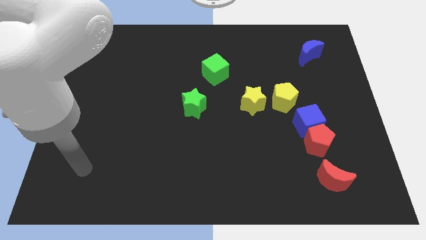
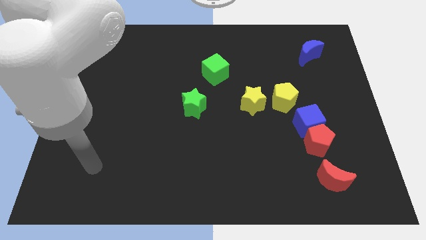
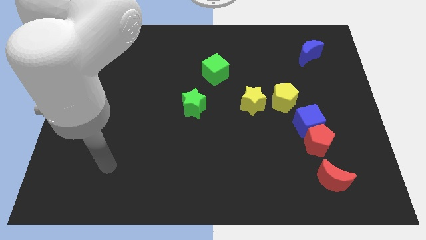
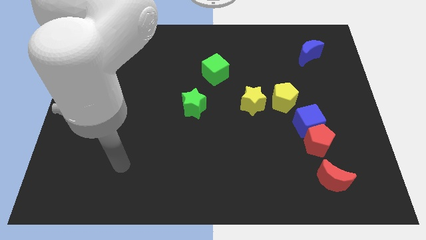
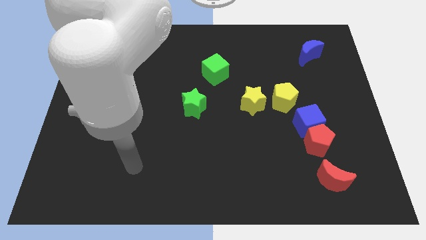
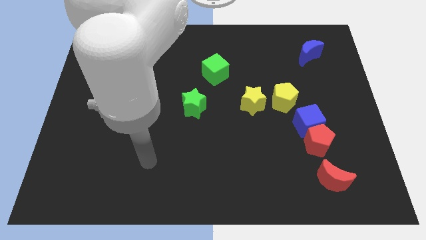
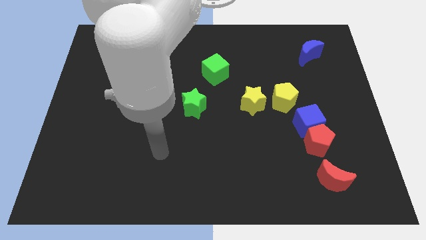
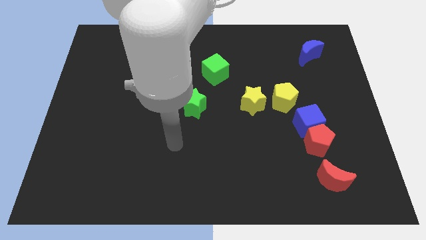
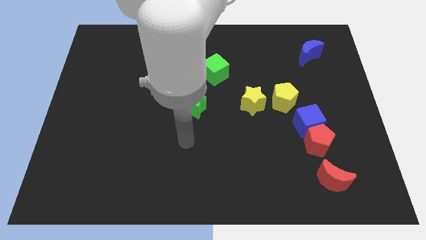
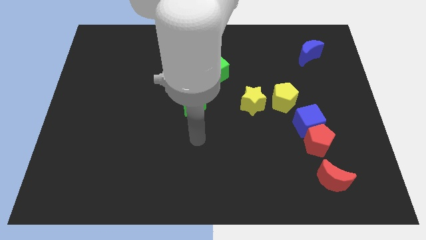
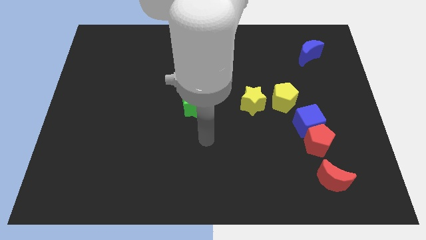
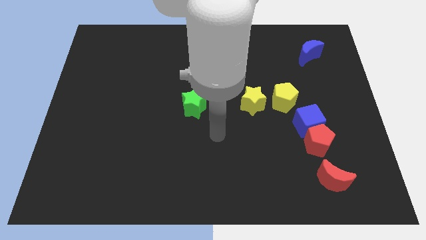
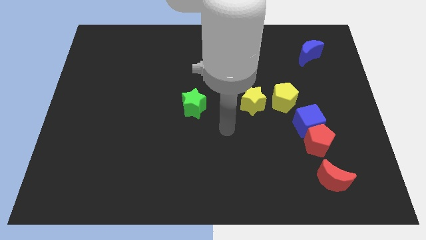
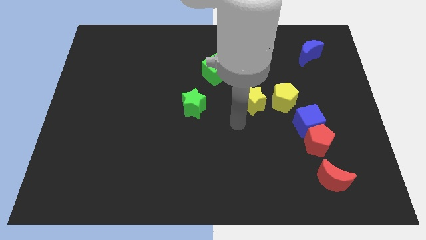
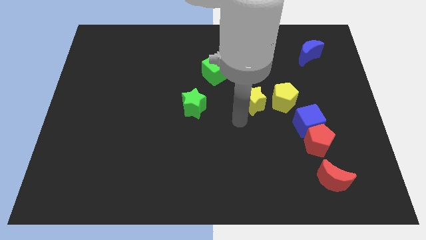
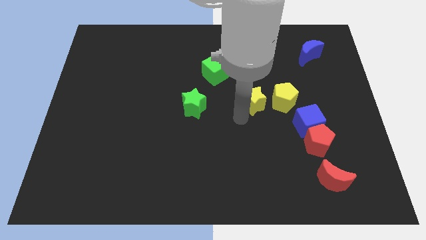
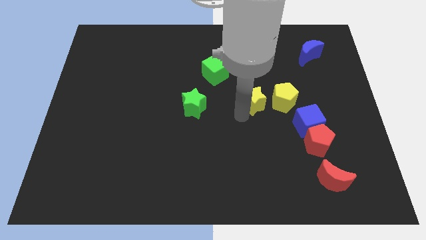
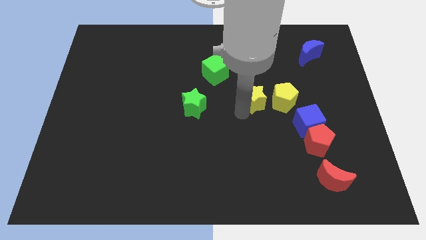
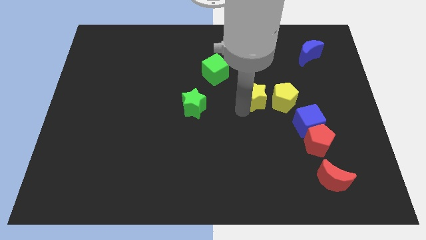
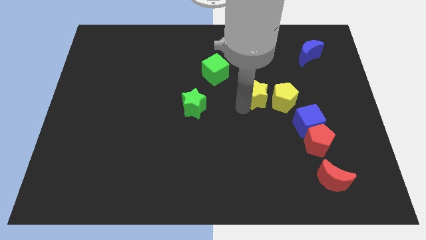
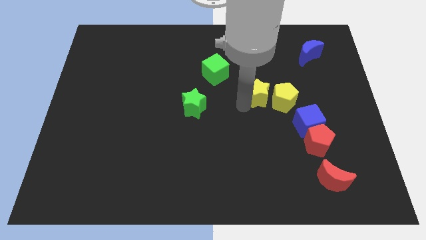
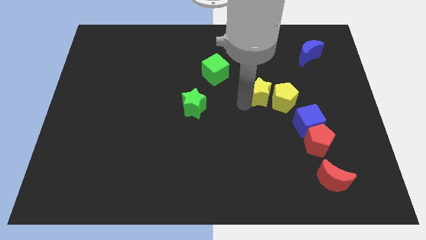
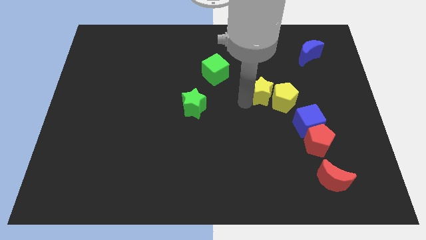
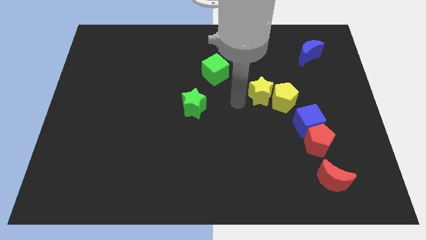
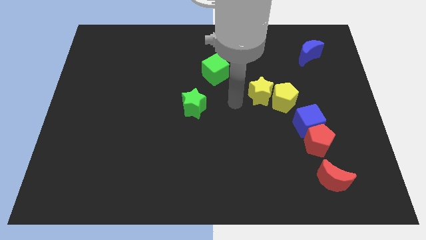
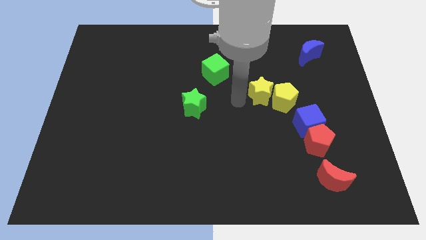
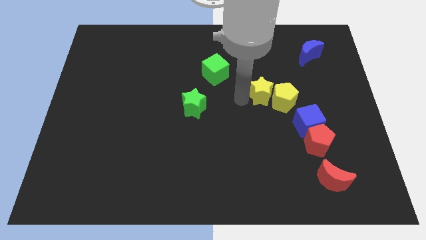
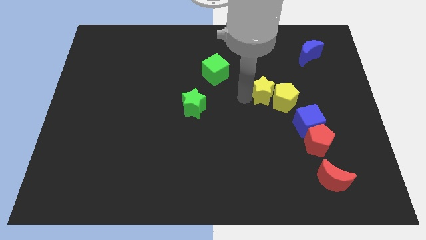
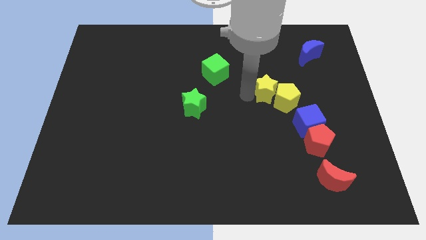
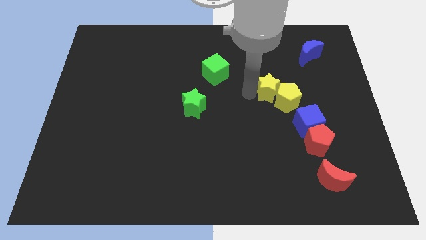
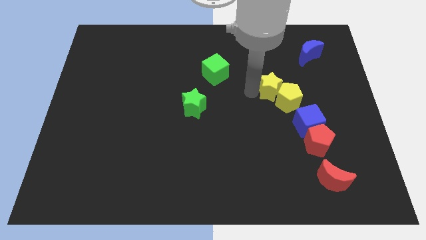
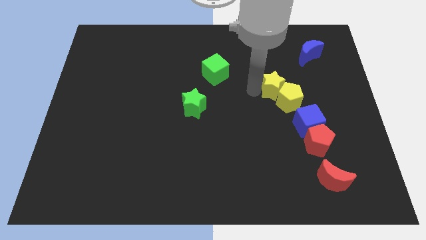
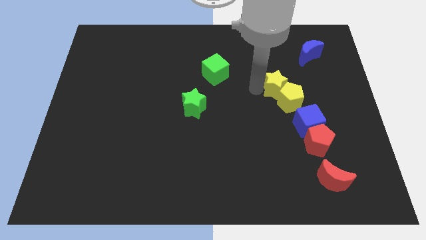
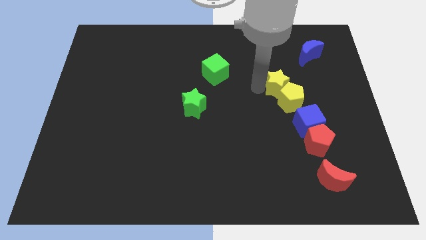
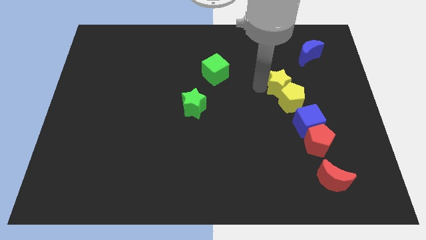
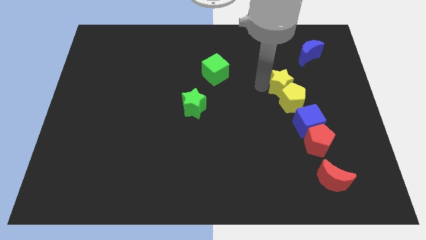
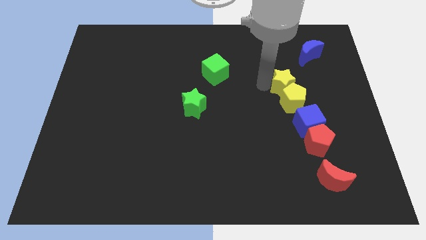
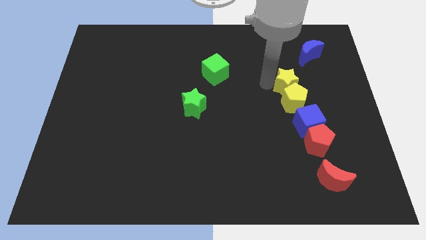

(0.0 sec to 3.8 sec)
slide the yellow star right slightly

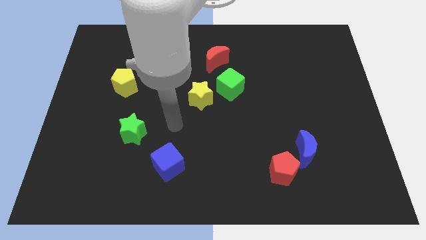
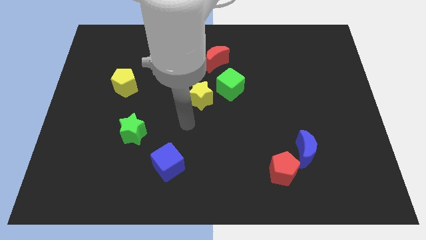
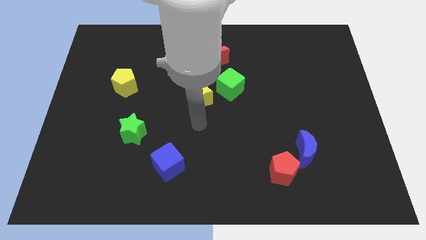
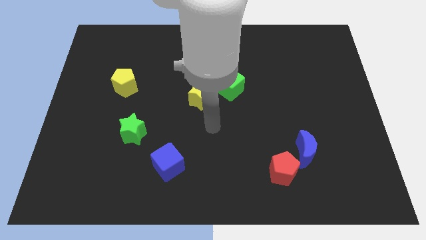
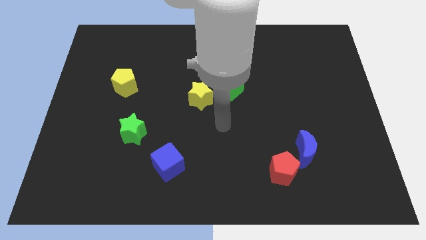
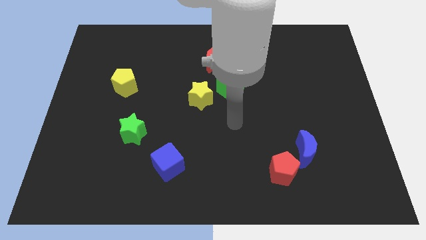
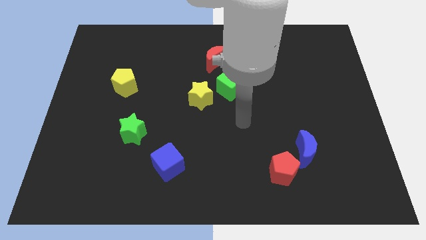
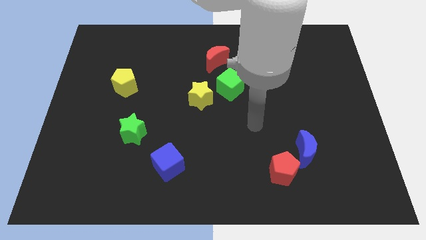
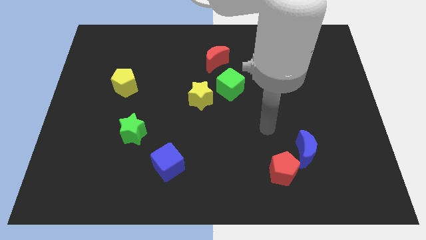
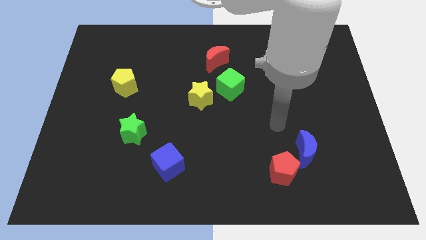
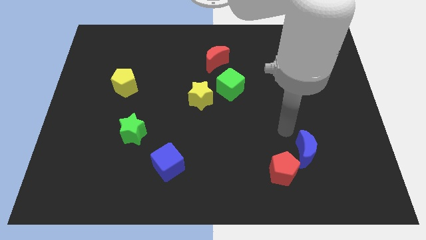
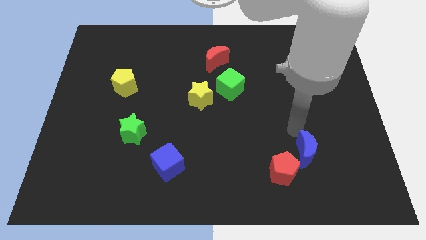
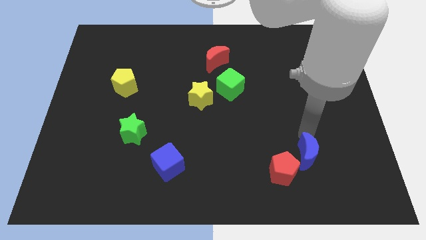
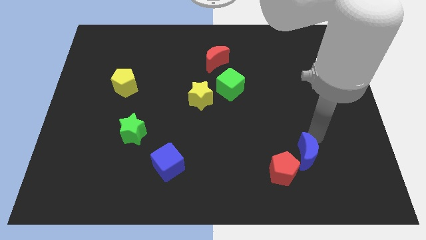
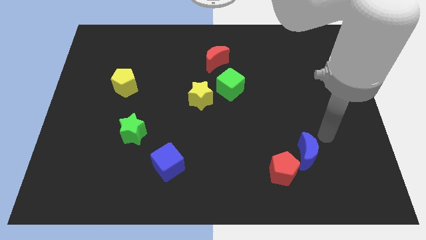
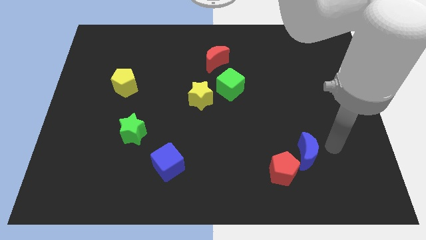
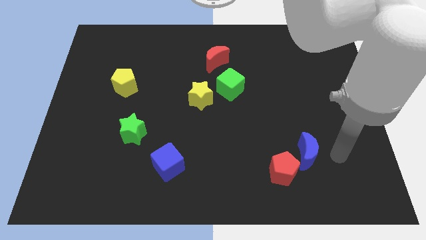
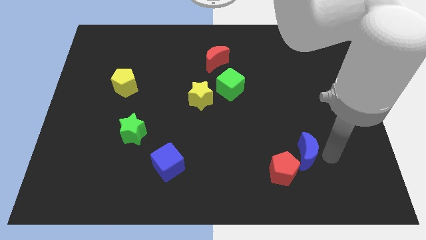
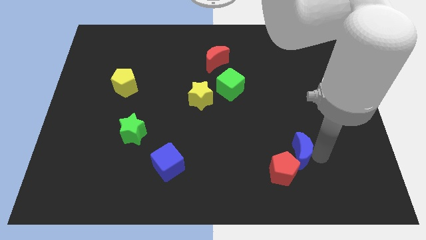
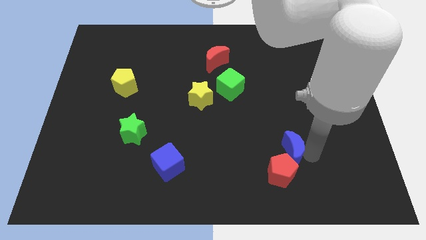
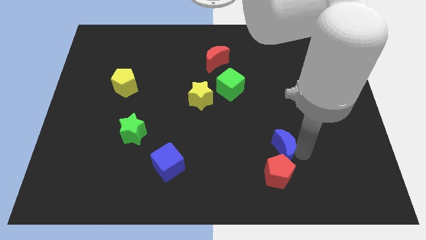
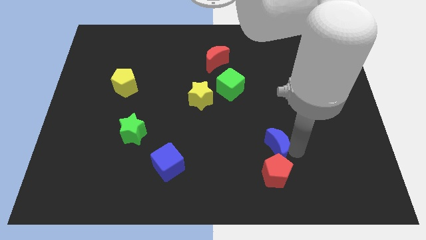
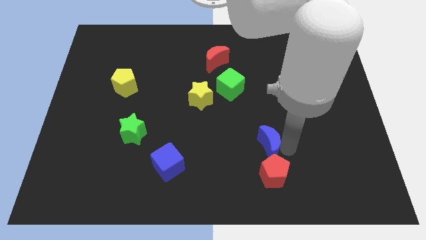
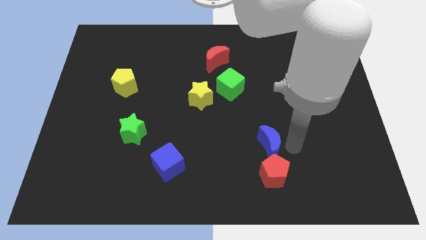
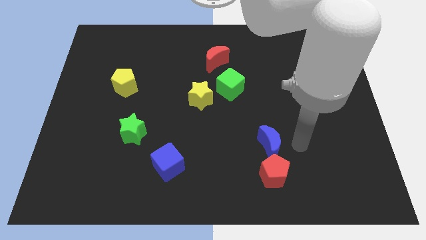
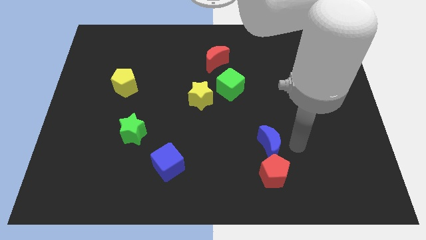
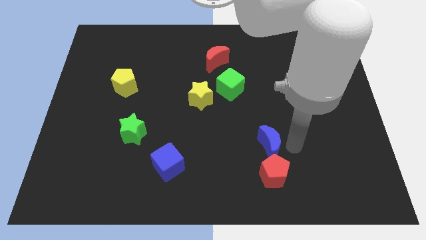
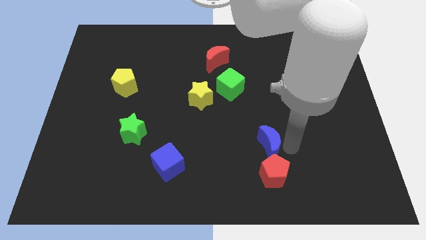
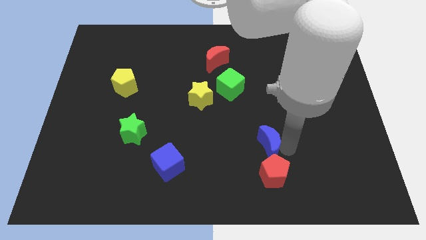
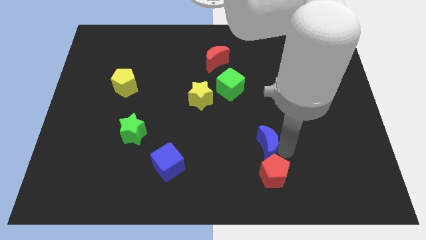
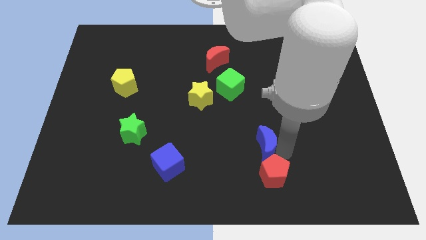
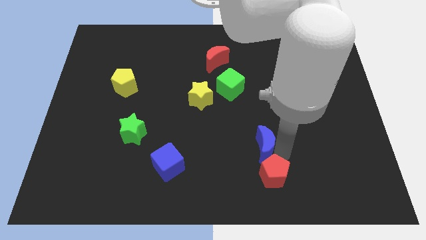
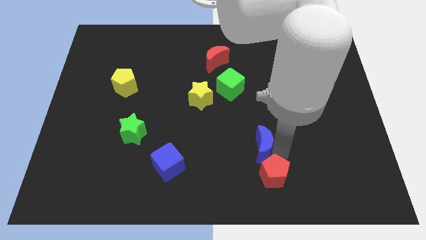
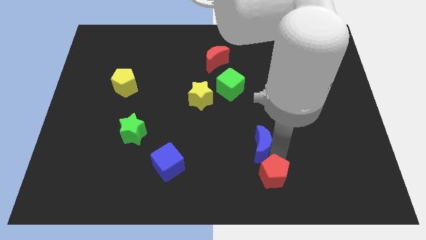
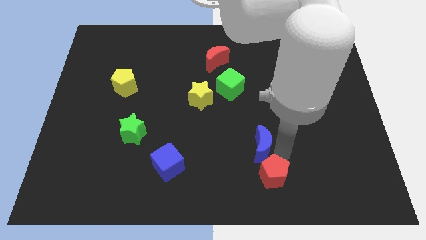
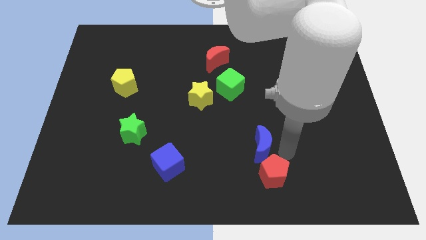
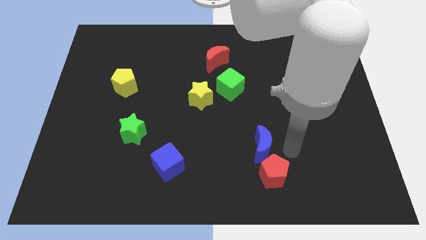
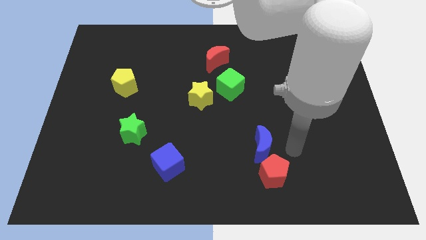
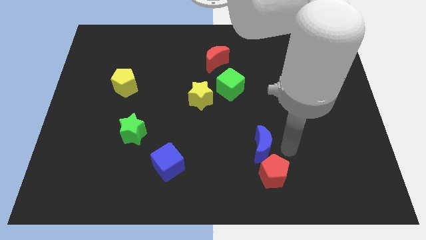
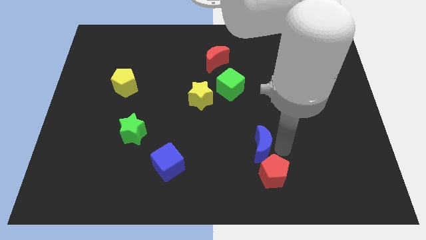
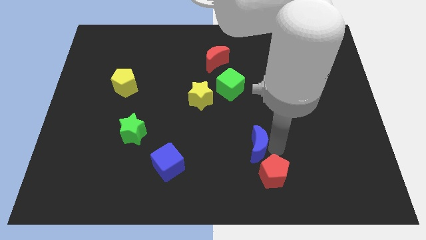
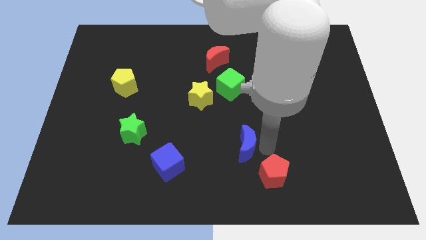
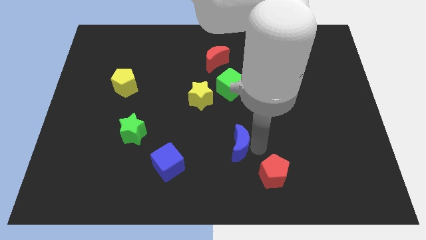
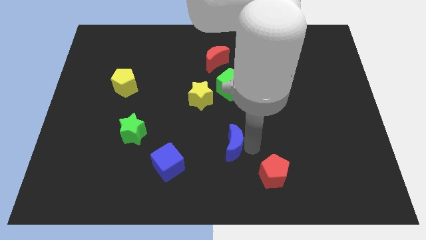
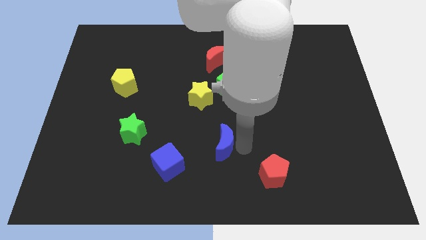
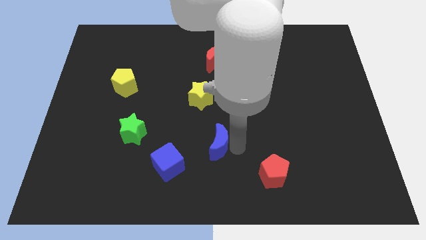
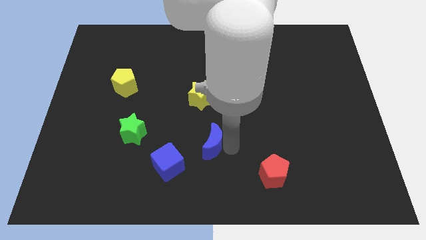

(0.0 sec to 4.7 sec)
slide the blue moon to the left
